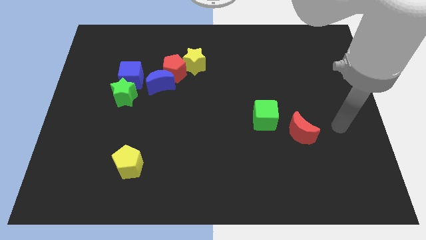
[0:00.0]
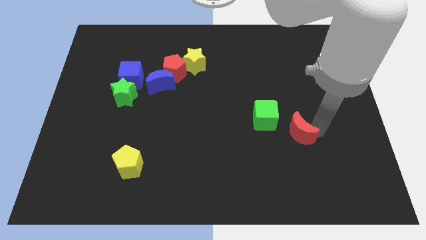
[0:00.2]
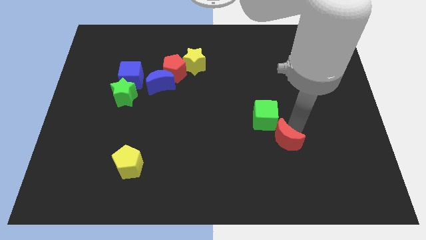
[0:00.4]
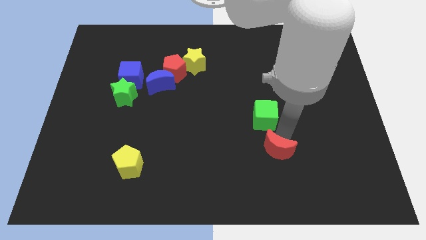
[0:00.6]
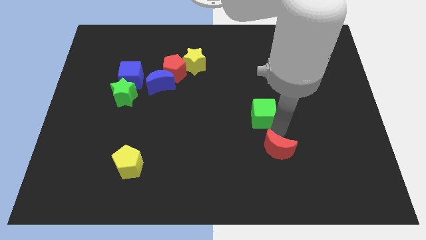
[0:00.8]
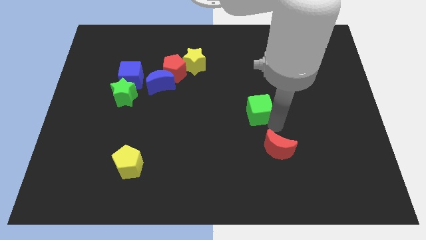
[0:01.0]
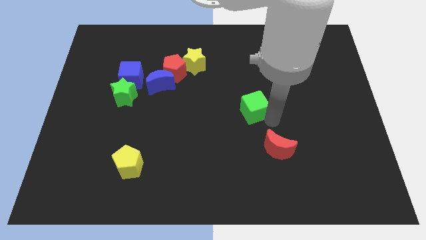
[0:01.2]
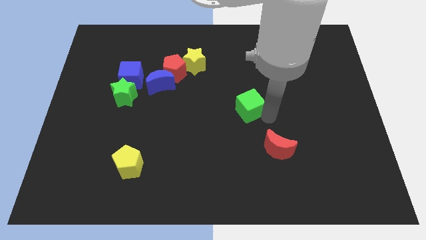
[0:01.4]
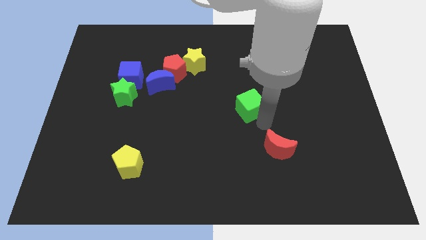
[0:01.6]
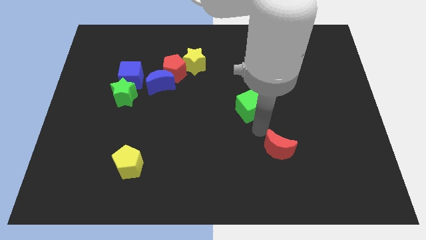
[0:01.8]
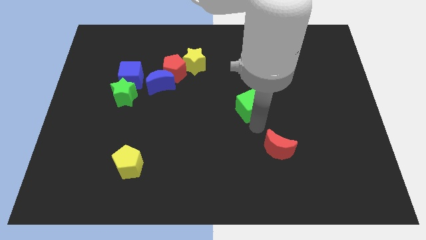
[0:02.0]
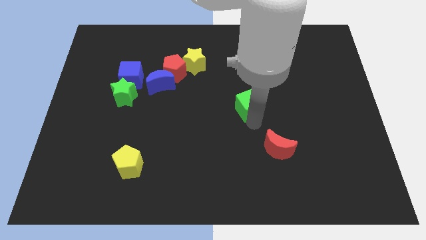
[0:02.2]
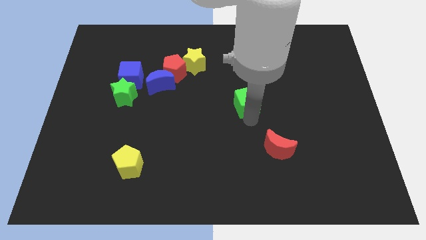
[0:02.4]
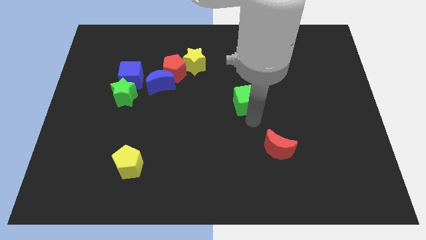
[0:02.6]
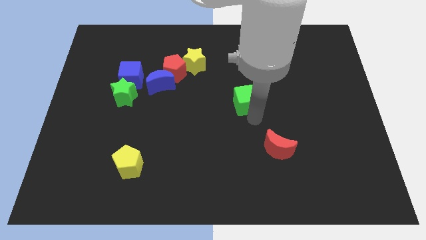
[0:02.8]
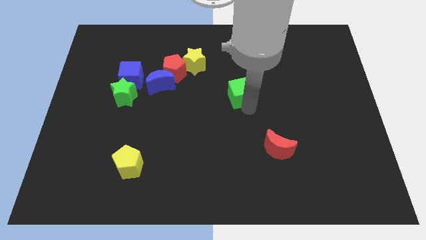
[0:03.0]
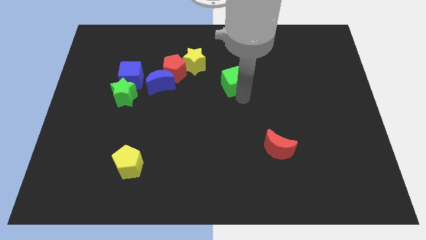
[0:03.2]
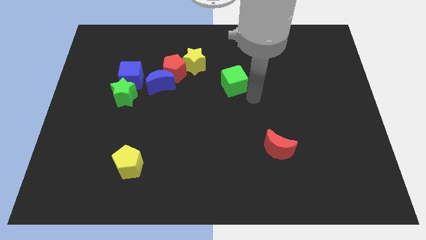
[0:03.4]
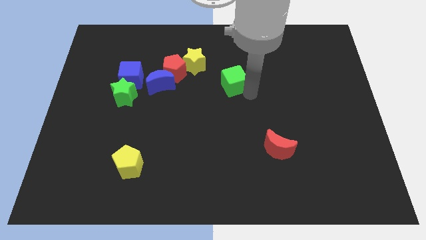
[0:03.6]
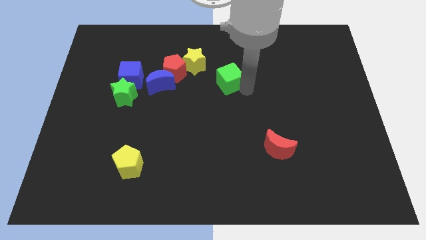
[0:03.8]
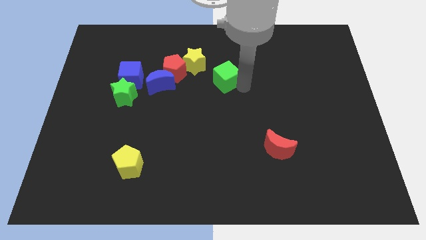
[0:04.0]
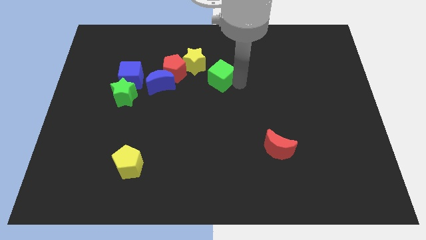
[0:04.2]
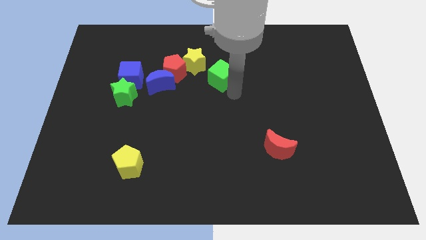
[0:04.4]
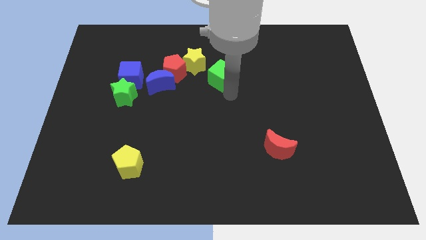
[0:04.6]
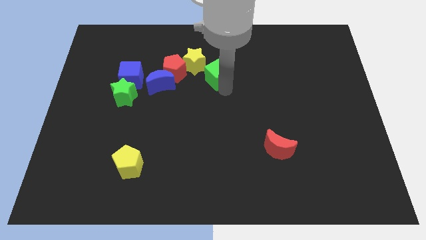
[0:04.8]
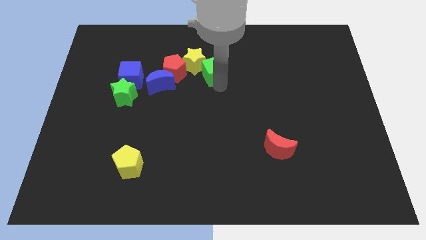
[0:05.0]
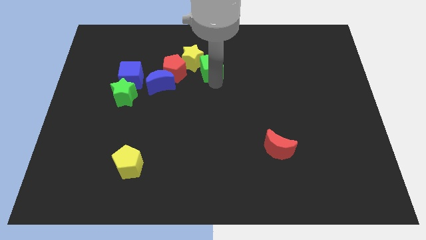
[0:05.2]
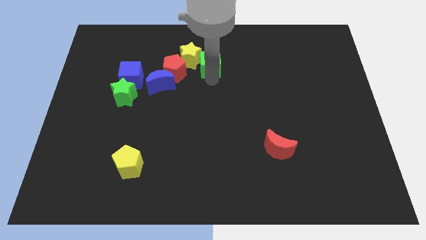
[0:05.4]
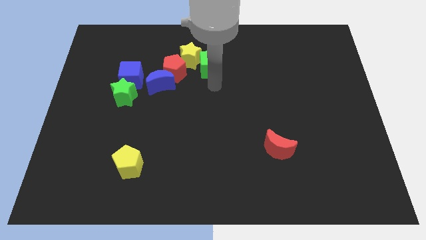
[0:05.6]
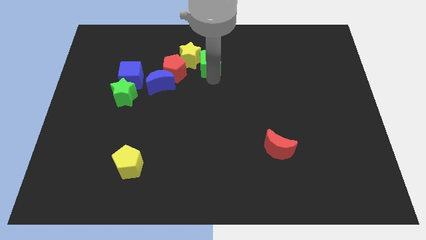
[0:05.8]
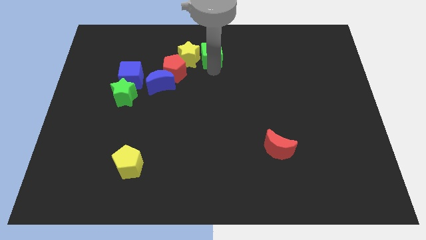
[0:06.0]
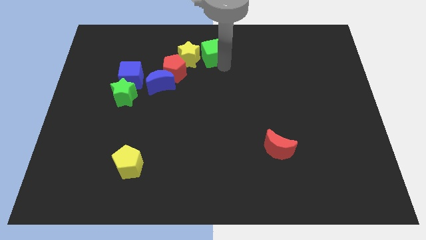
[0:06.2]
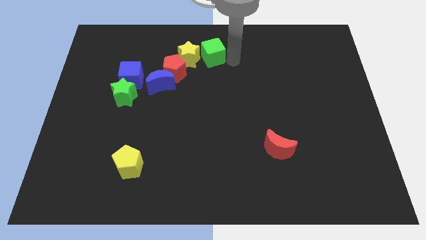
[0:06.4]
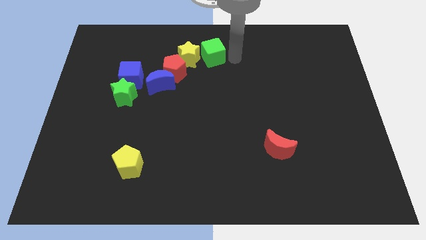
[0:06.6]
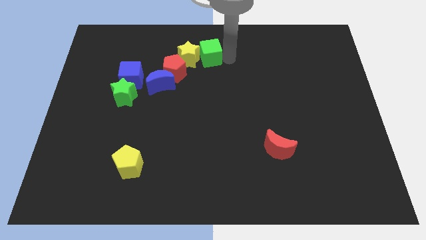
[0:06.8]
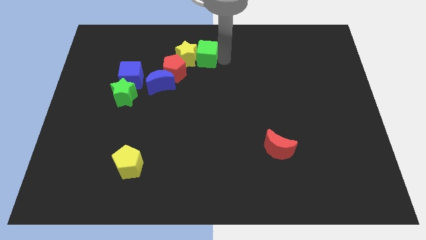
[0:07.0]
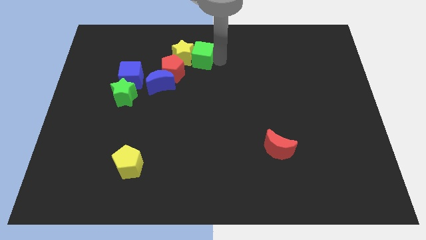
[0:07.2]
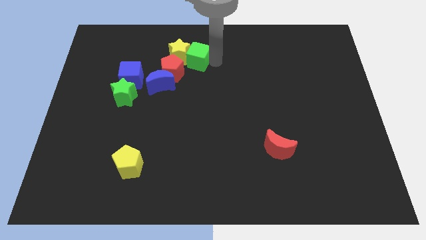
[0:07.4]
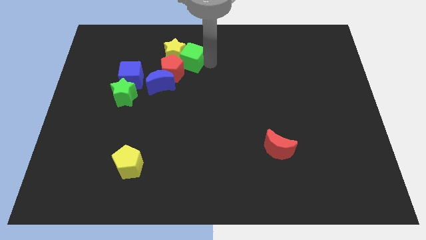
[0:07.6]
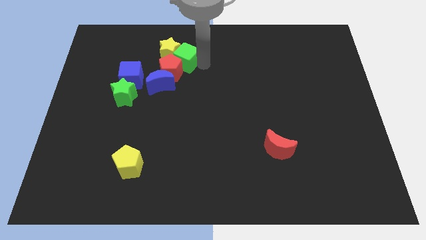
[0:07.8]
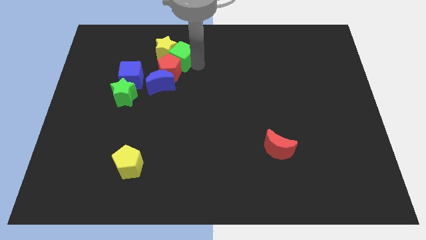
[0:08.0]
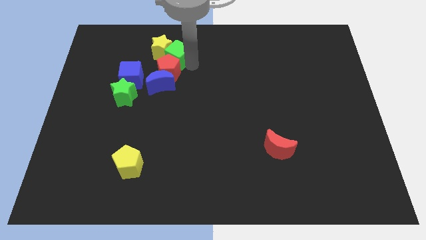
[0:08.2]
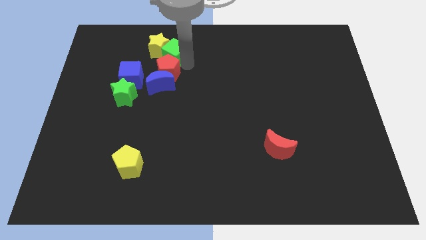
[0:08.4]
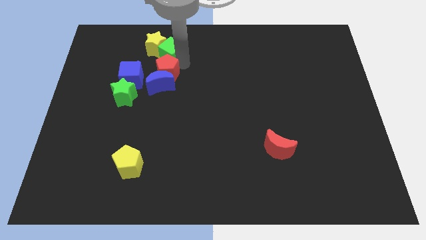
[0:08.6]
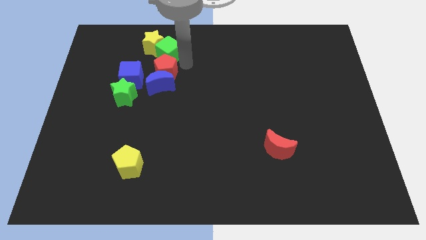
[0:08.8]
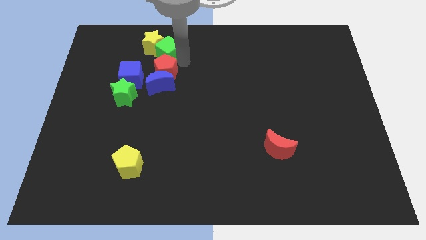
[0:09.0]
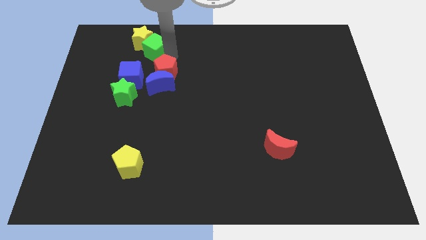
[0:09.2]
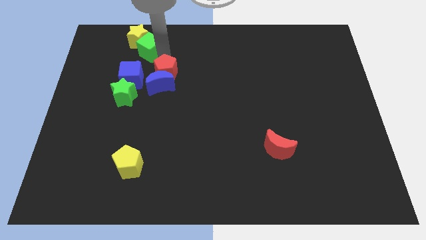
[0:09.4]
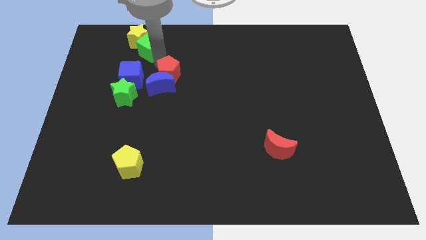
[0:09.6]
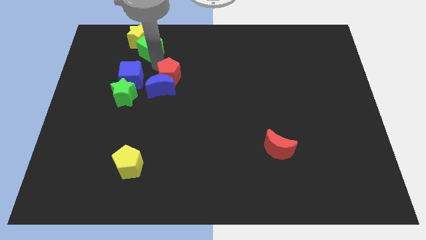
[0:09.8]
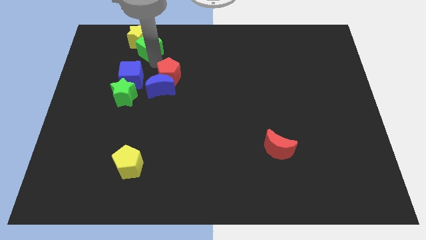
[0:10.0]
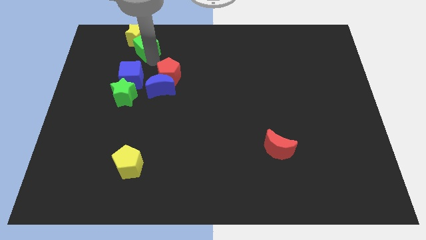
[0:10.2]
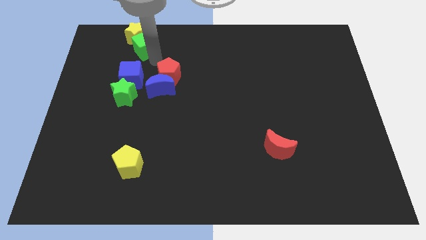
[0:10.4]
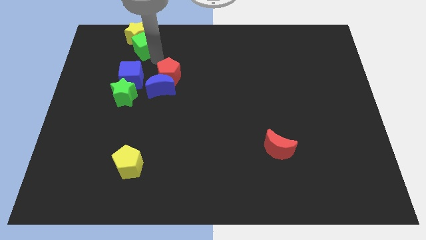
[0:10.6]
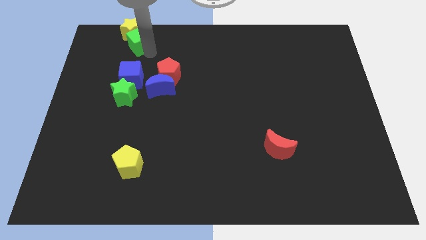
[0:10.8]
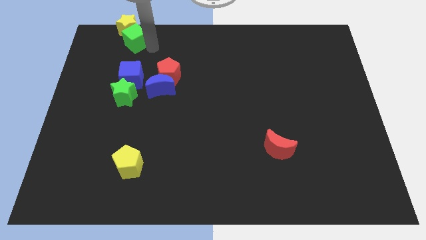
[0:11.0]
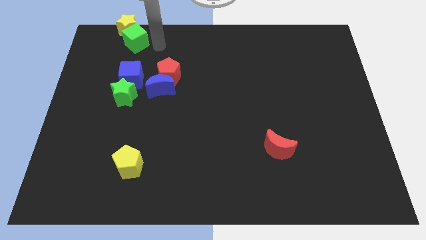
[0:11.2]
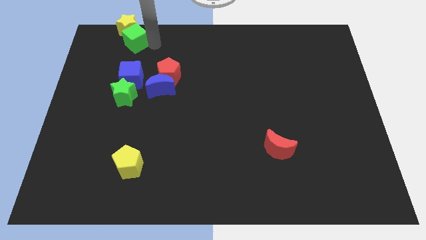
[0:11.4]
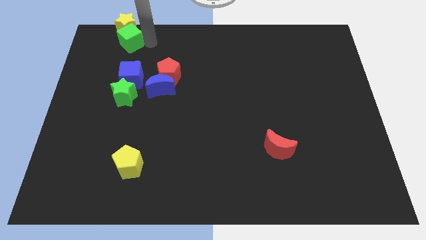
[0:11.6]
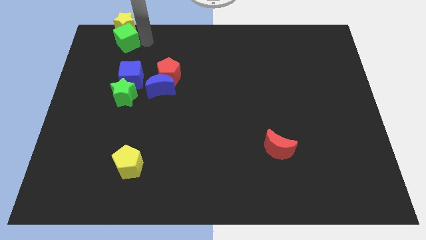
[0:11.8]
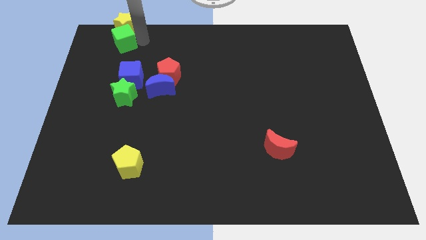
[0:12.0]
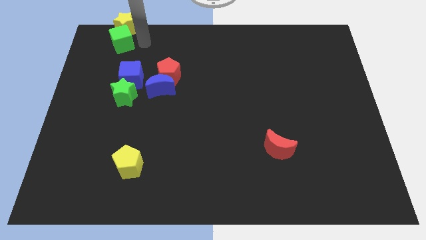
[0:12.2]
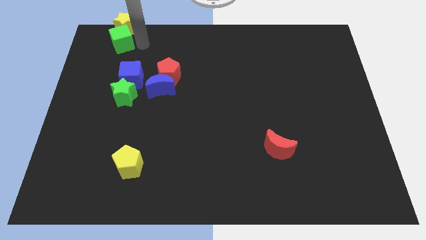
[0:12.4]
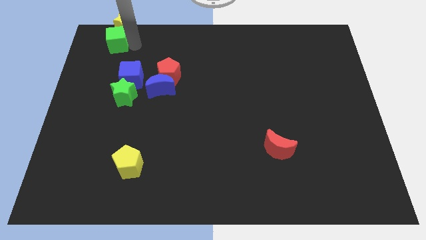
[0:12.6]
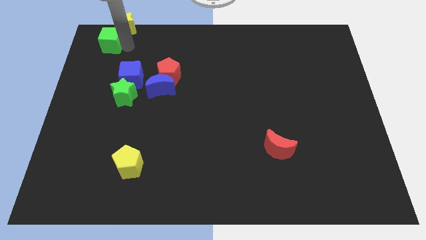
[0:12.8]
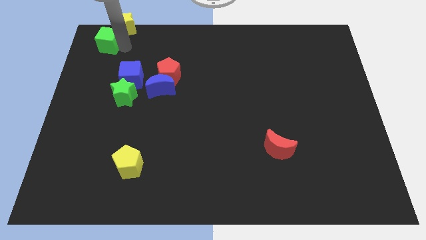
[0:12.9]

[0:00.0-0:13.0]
move the green cube to the top left of the board

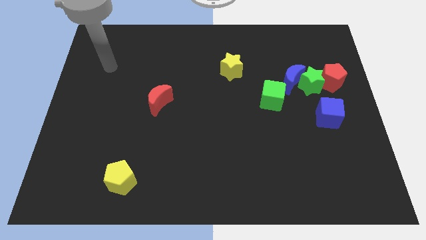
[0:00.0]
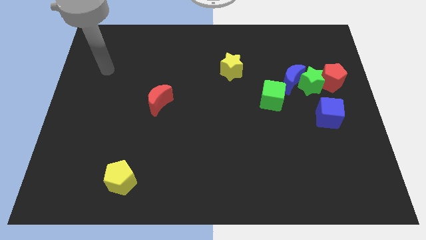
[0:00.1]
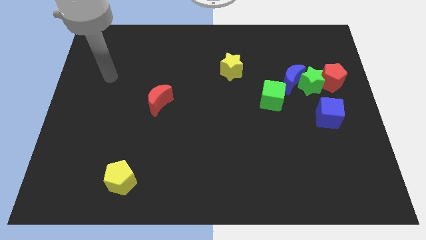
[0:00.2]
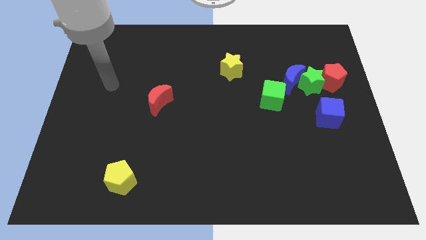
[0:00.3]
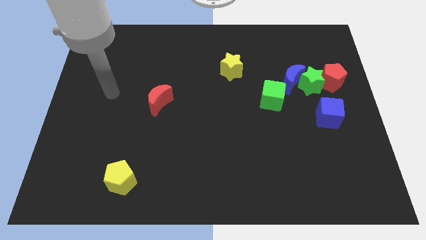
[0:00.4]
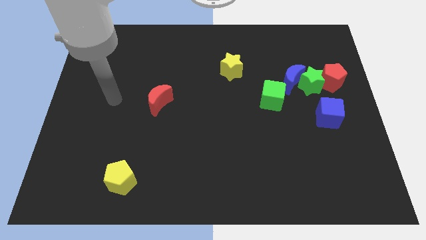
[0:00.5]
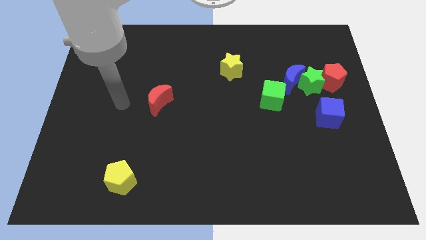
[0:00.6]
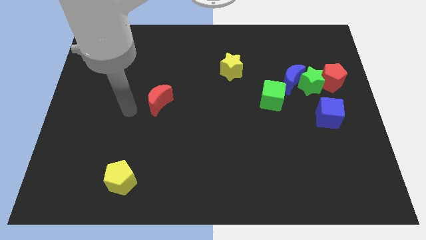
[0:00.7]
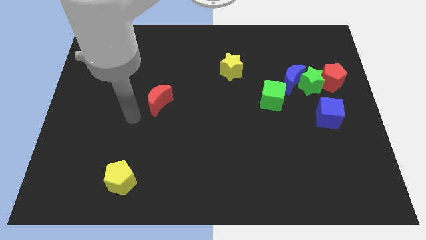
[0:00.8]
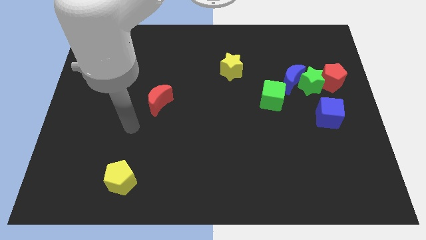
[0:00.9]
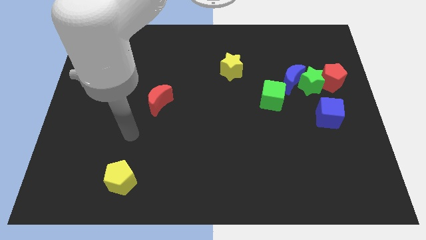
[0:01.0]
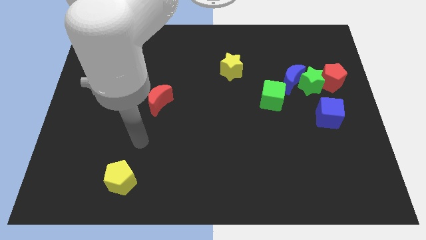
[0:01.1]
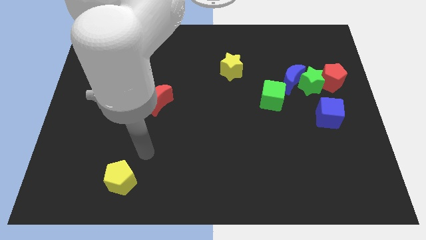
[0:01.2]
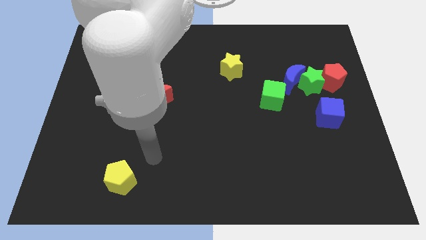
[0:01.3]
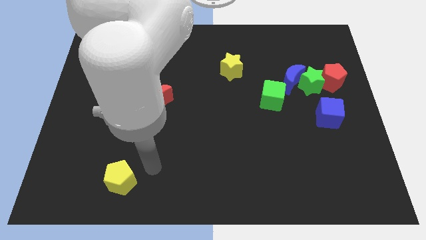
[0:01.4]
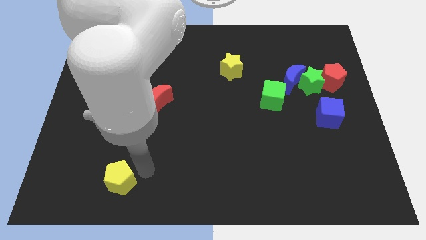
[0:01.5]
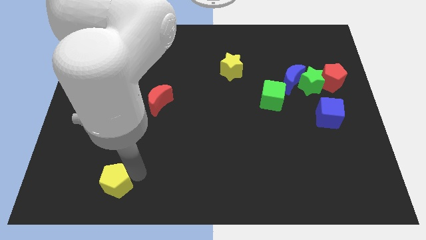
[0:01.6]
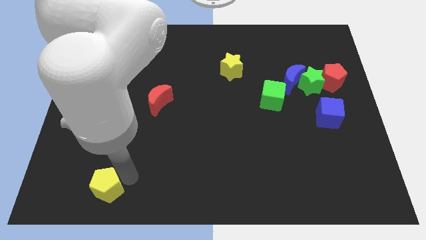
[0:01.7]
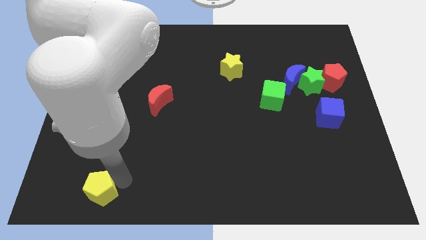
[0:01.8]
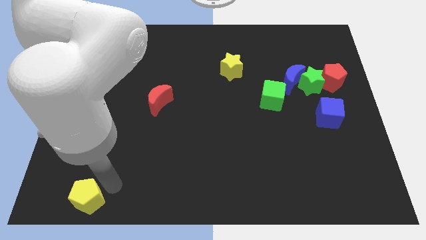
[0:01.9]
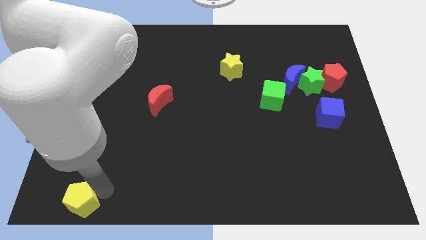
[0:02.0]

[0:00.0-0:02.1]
move the yellow pentagon to the bottom left of the board
